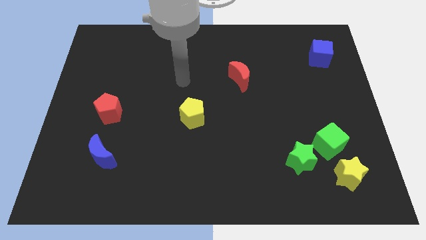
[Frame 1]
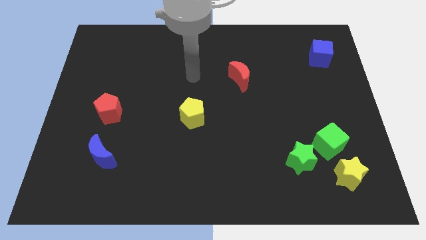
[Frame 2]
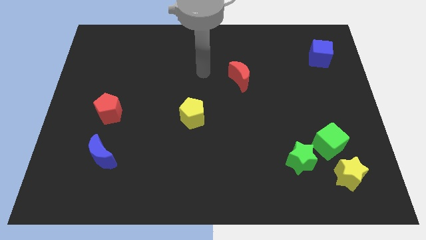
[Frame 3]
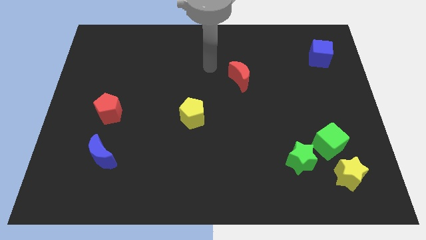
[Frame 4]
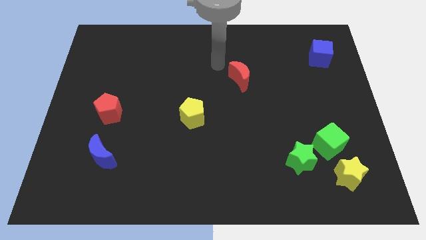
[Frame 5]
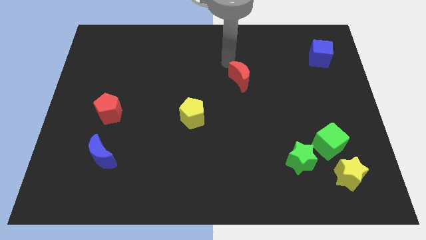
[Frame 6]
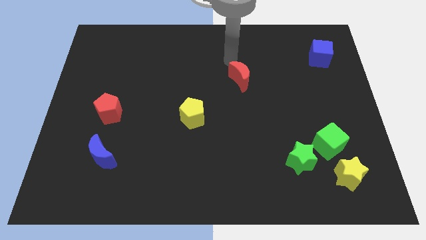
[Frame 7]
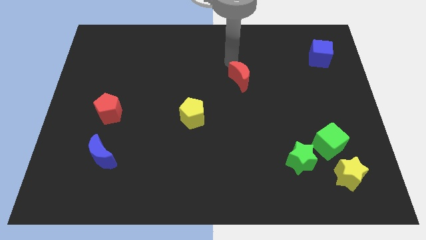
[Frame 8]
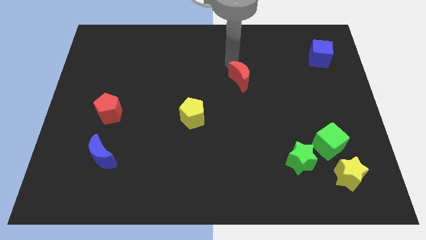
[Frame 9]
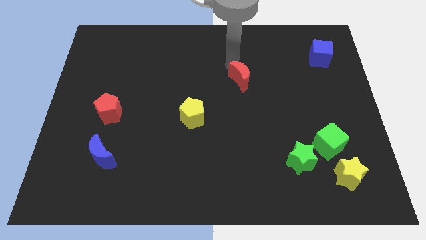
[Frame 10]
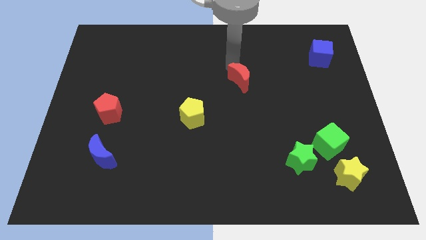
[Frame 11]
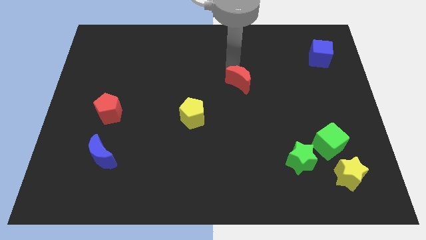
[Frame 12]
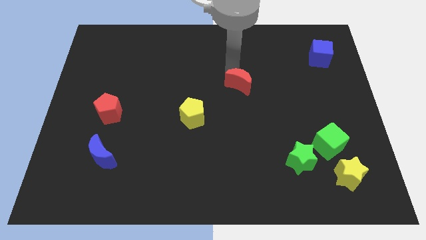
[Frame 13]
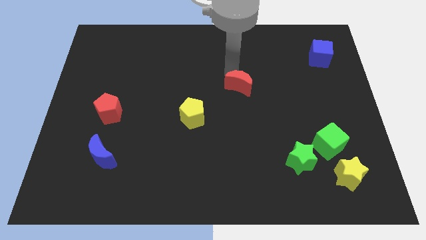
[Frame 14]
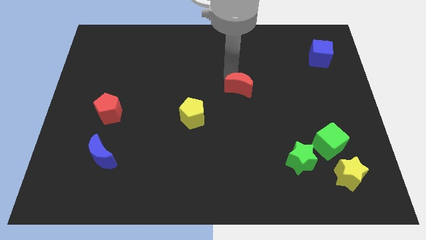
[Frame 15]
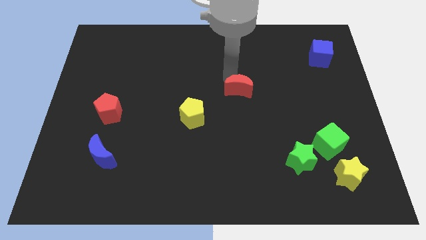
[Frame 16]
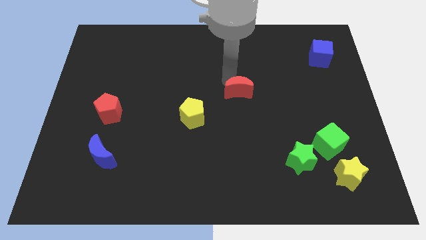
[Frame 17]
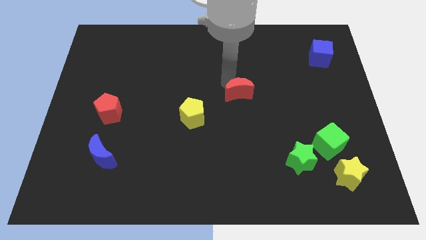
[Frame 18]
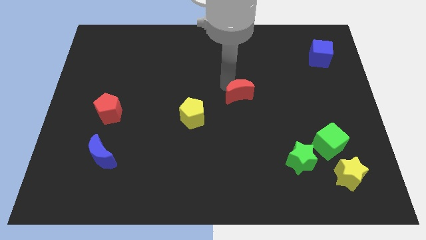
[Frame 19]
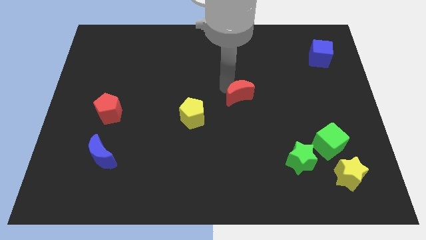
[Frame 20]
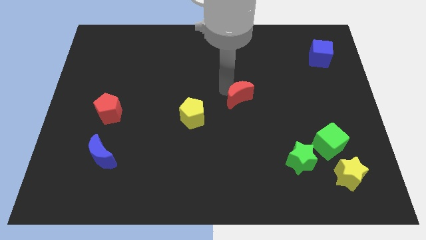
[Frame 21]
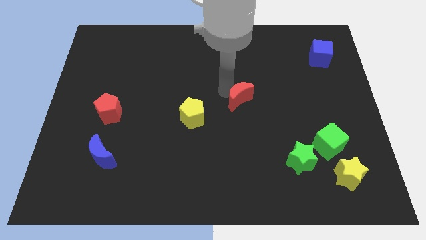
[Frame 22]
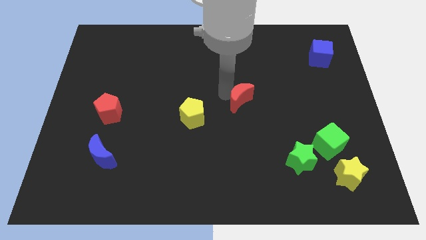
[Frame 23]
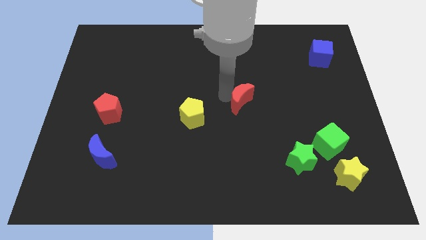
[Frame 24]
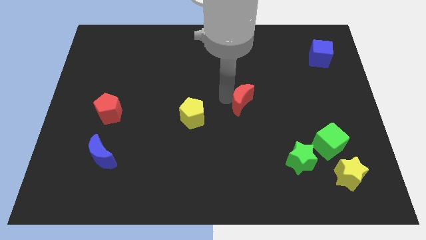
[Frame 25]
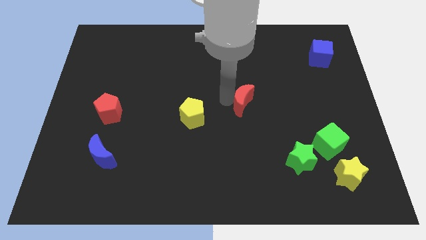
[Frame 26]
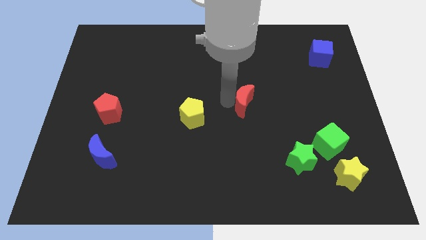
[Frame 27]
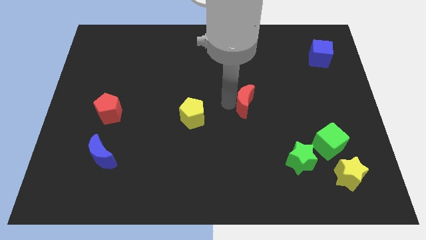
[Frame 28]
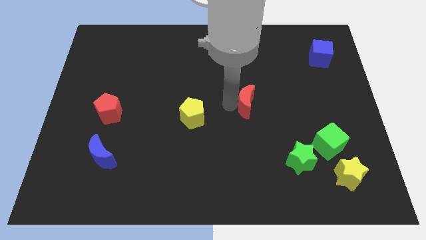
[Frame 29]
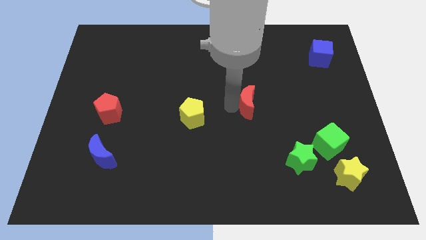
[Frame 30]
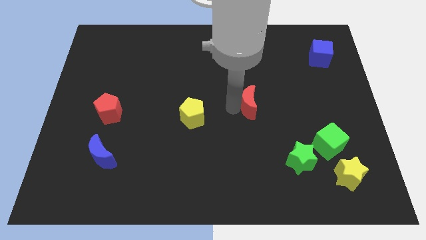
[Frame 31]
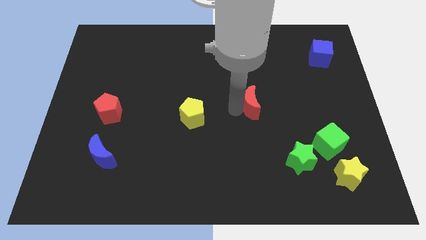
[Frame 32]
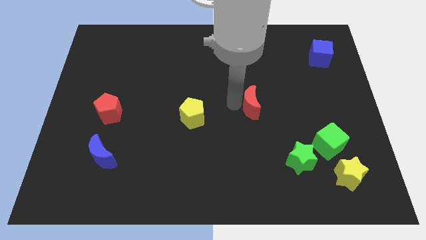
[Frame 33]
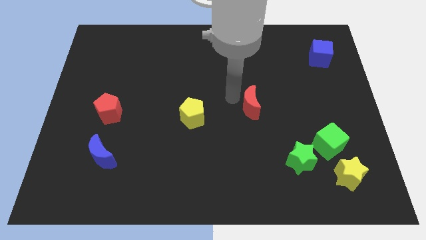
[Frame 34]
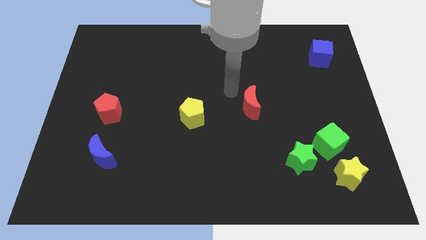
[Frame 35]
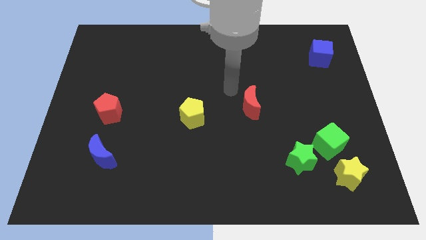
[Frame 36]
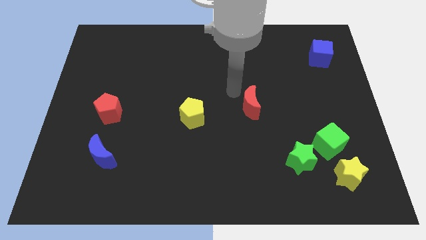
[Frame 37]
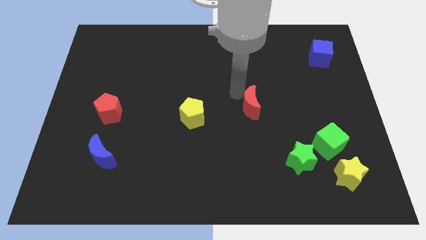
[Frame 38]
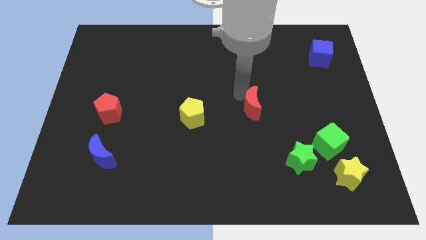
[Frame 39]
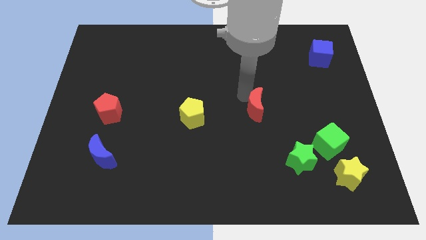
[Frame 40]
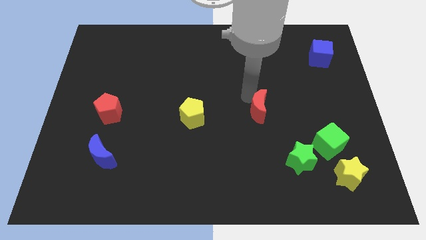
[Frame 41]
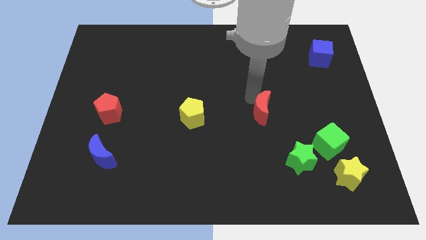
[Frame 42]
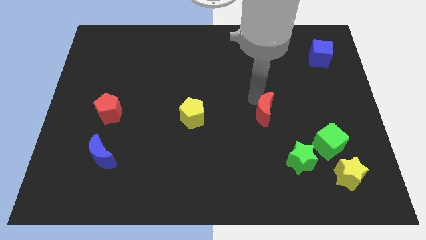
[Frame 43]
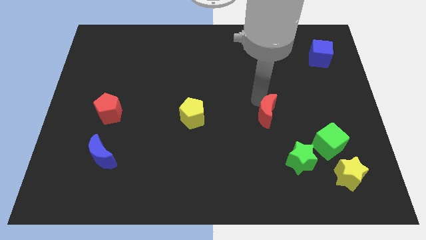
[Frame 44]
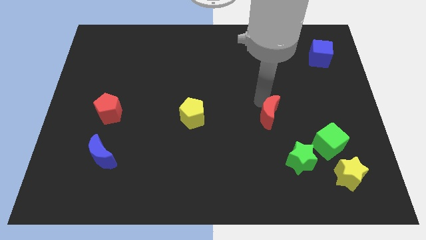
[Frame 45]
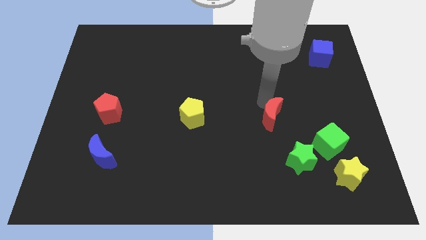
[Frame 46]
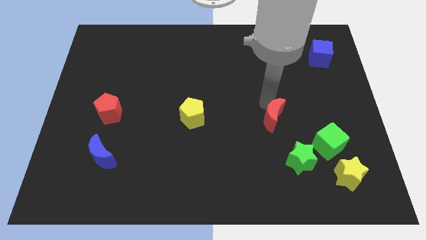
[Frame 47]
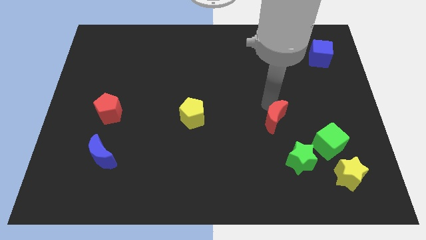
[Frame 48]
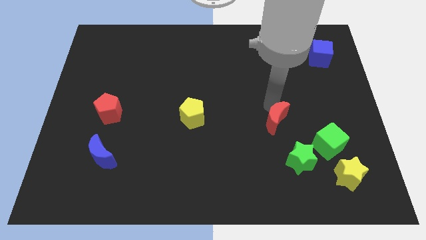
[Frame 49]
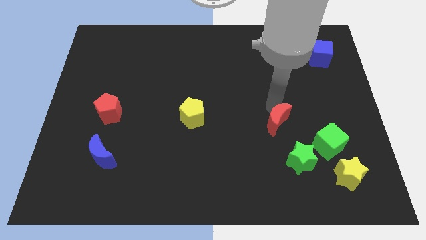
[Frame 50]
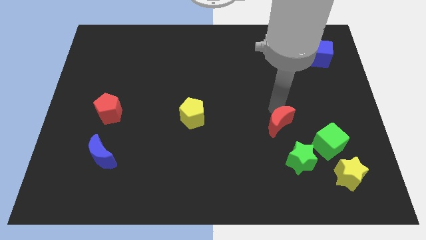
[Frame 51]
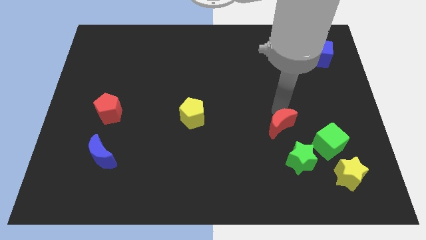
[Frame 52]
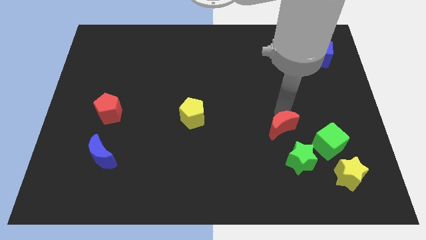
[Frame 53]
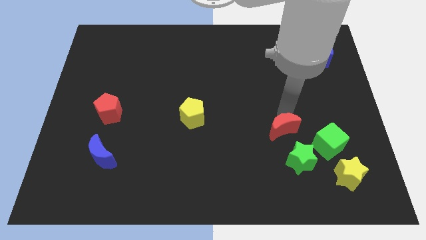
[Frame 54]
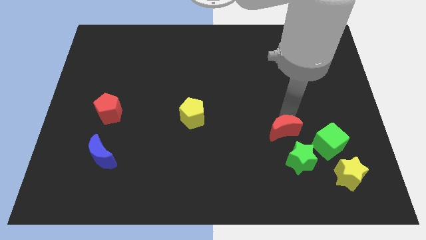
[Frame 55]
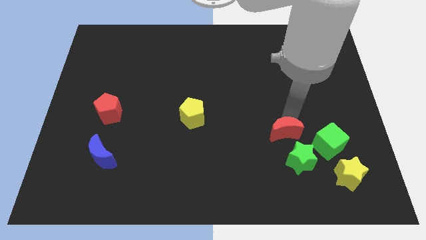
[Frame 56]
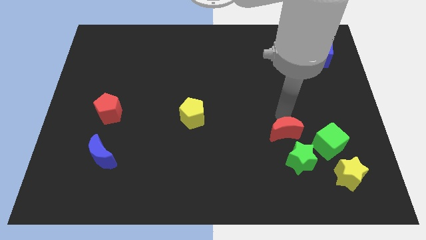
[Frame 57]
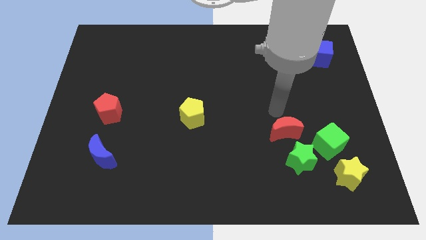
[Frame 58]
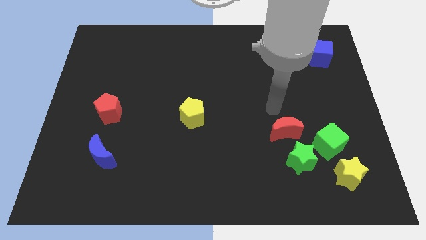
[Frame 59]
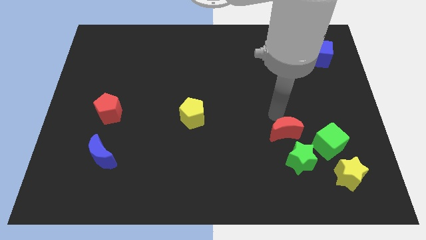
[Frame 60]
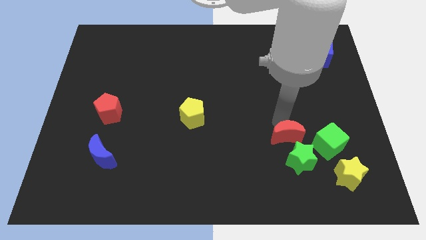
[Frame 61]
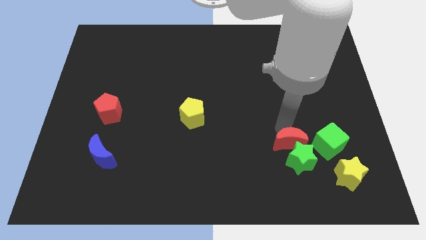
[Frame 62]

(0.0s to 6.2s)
slide the red moon close to the green star

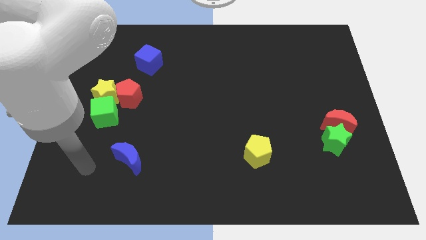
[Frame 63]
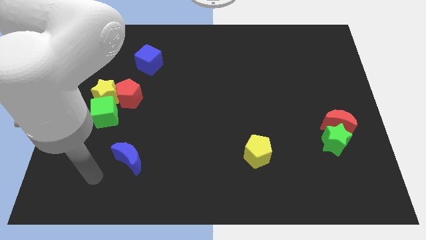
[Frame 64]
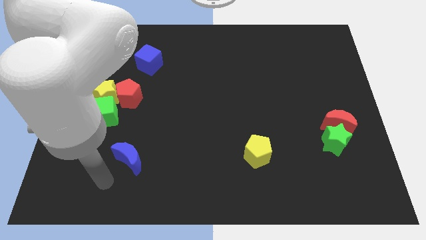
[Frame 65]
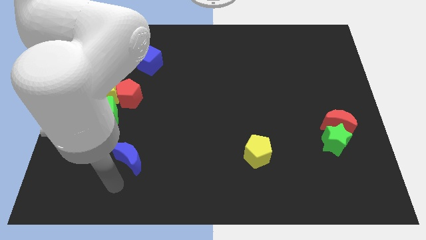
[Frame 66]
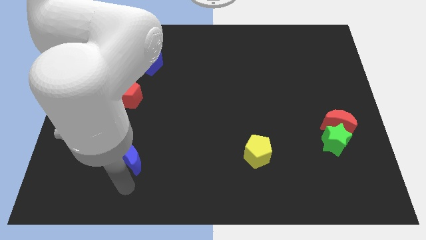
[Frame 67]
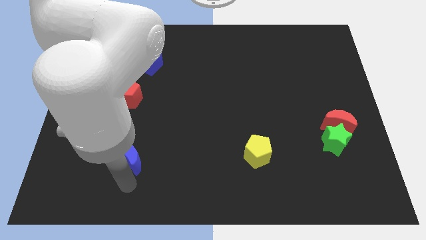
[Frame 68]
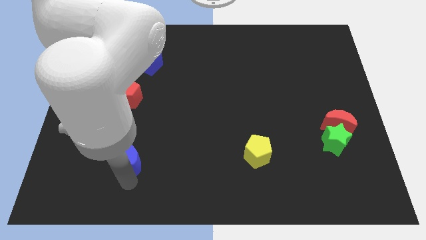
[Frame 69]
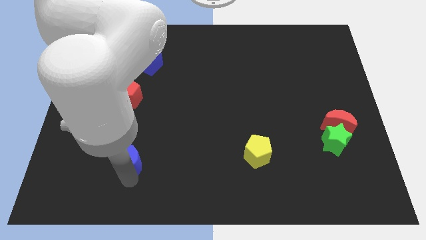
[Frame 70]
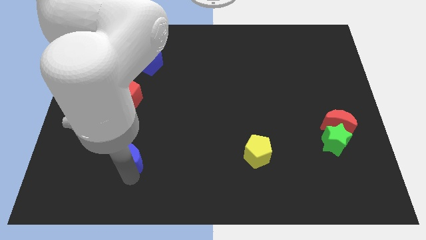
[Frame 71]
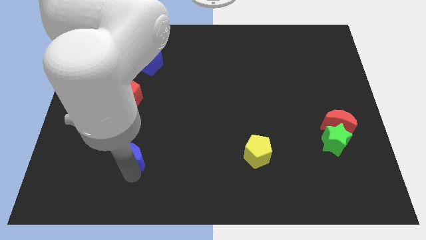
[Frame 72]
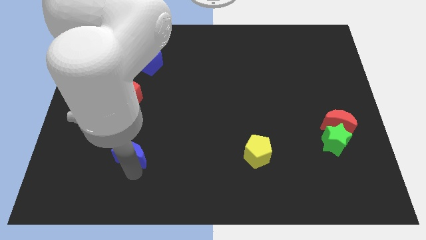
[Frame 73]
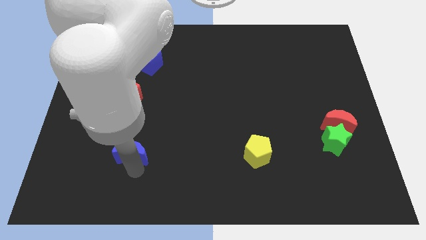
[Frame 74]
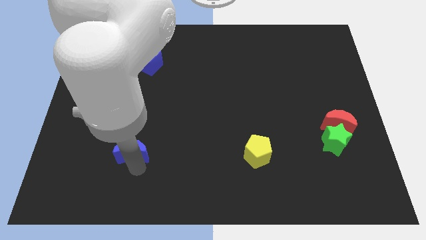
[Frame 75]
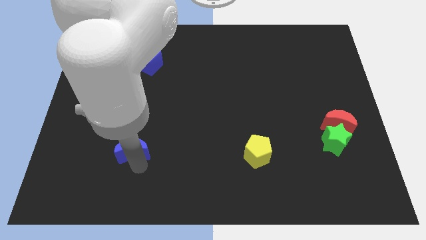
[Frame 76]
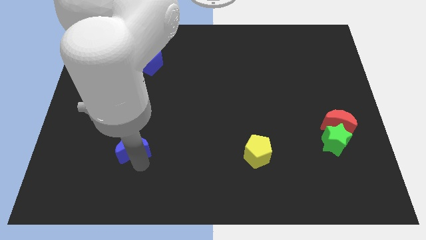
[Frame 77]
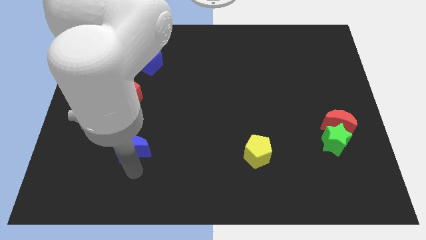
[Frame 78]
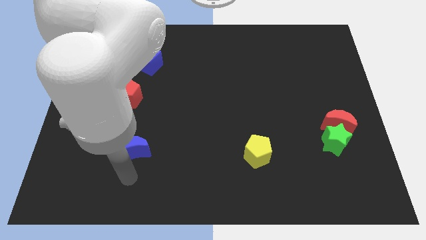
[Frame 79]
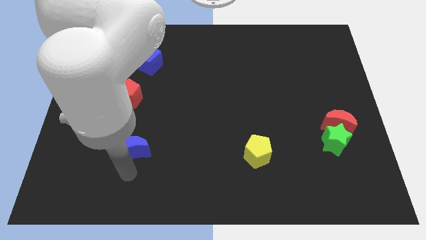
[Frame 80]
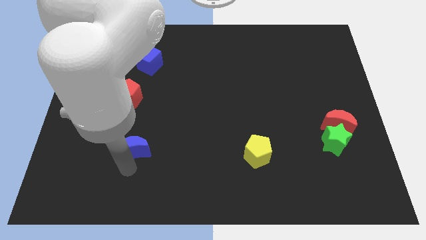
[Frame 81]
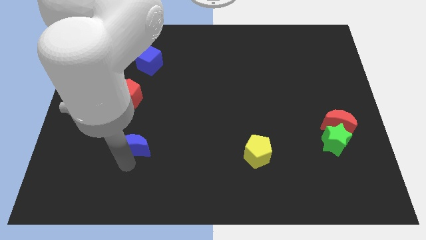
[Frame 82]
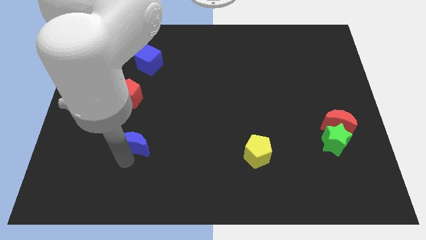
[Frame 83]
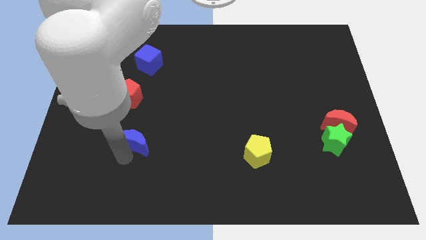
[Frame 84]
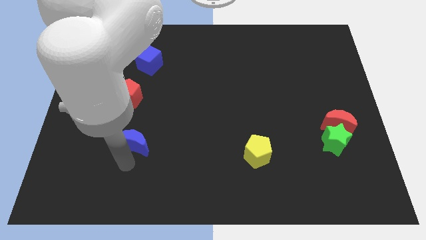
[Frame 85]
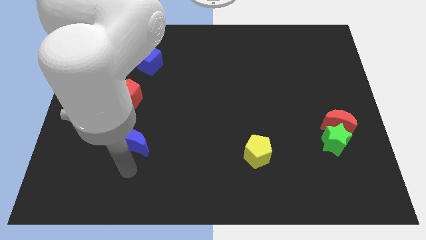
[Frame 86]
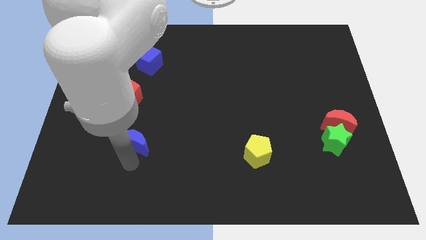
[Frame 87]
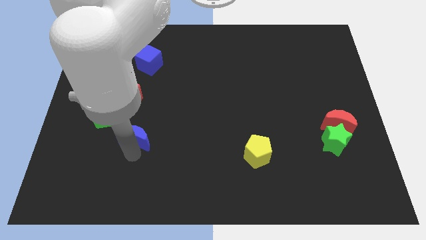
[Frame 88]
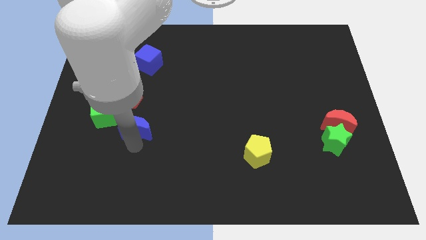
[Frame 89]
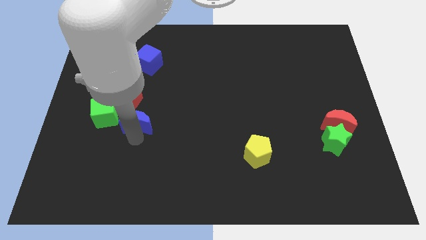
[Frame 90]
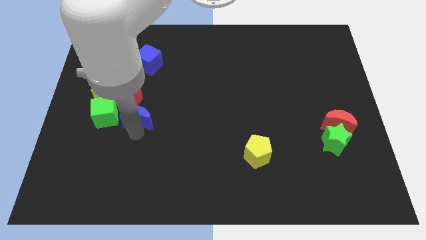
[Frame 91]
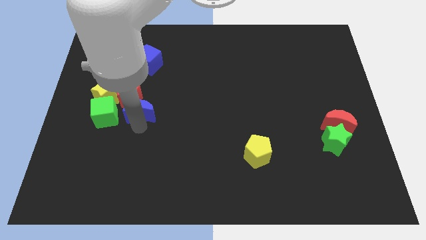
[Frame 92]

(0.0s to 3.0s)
push the blue moon next to the red pentagon
